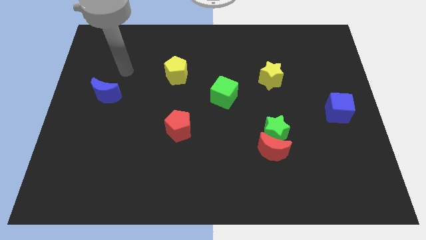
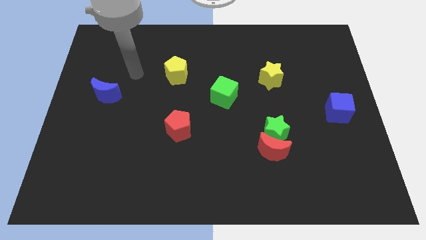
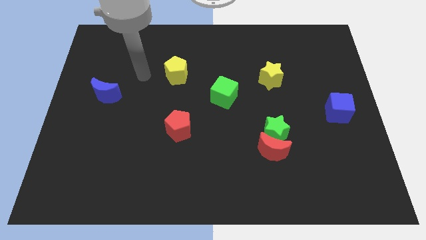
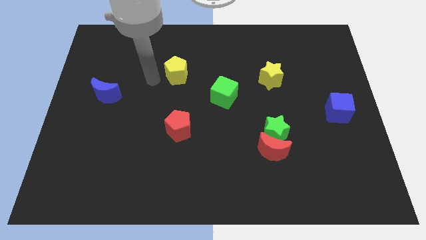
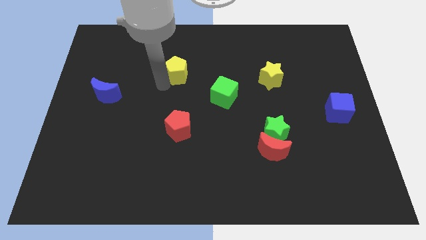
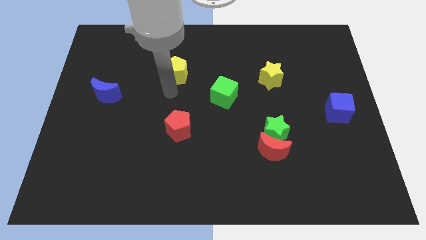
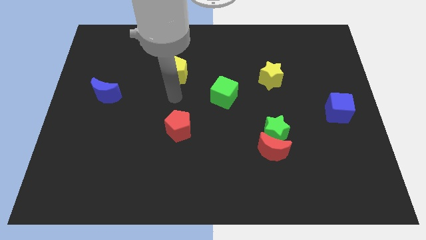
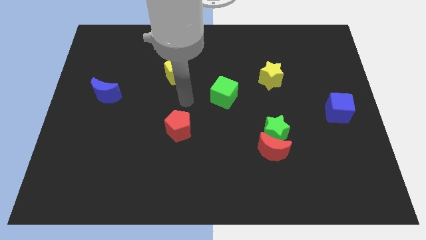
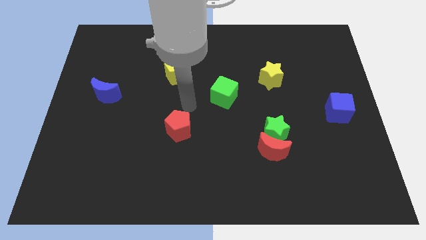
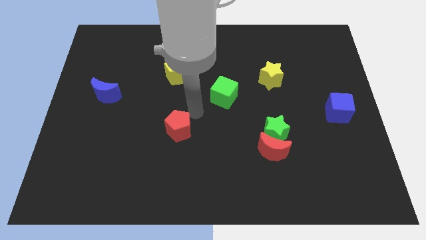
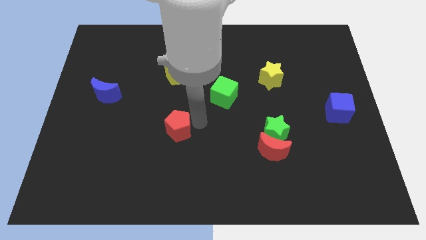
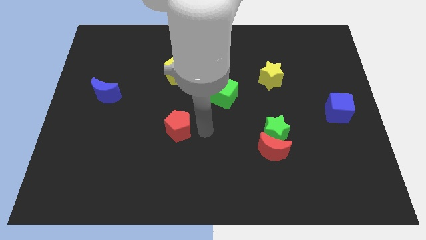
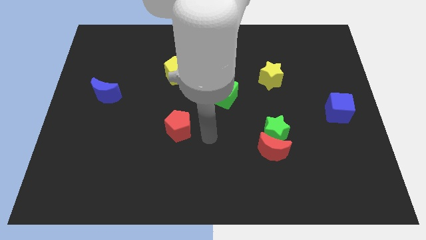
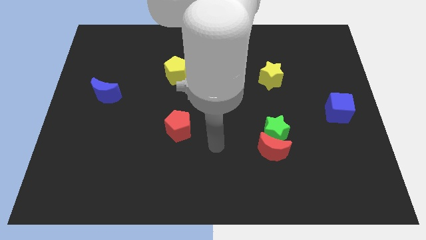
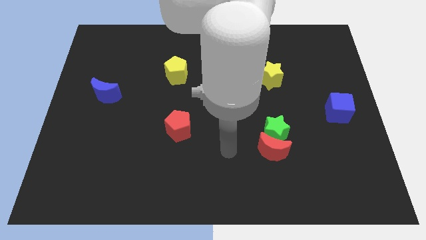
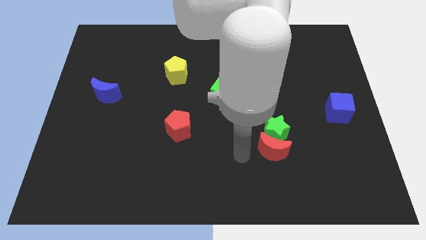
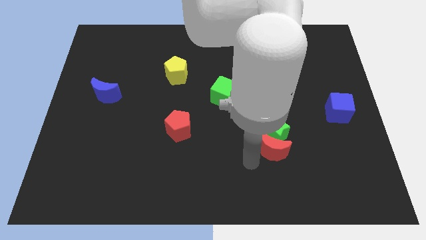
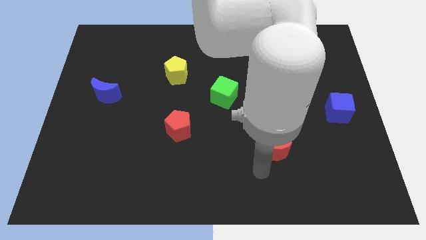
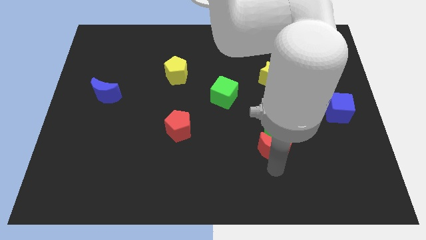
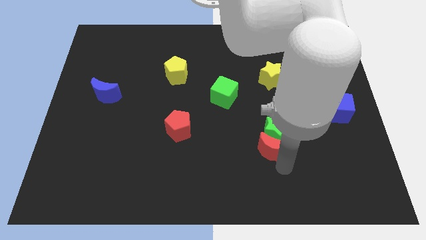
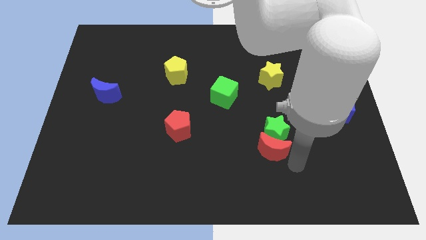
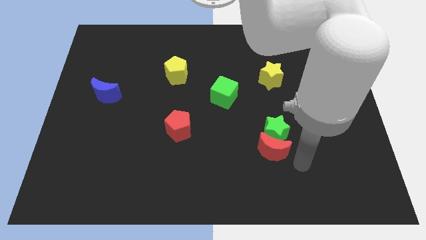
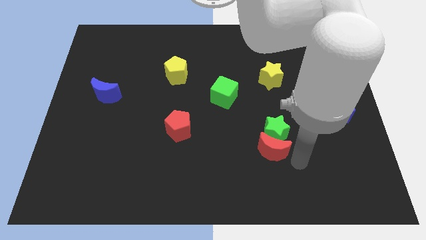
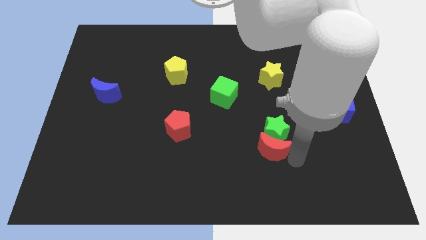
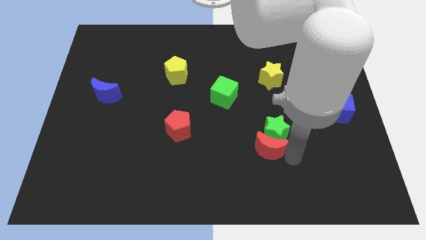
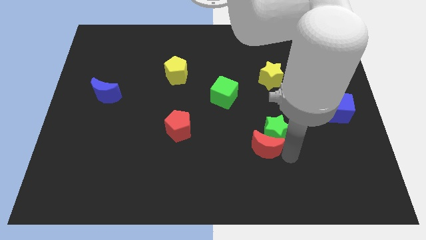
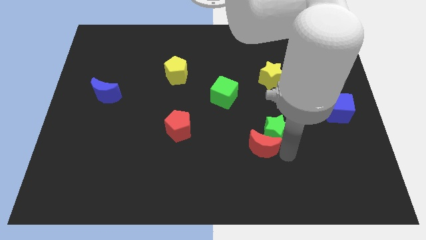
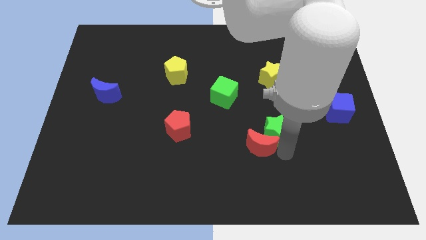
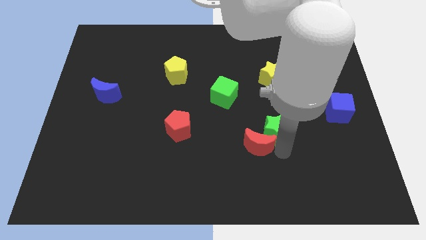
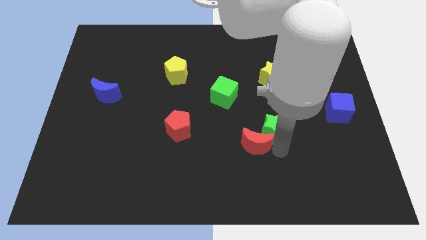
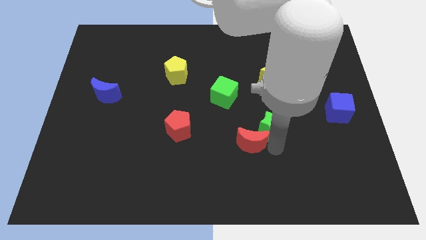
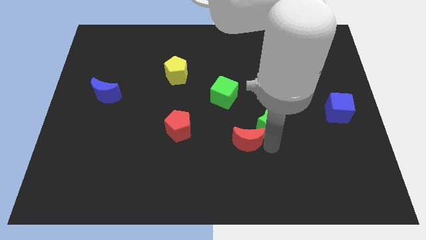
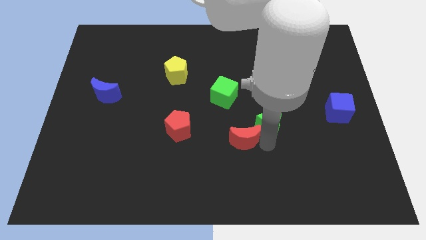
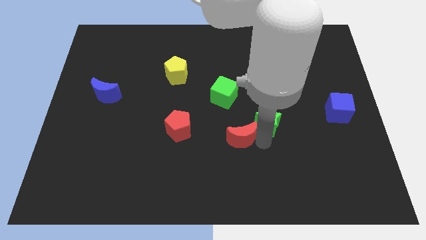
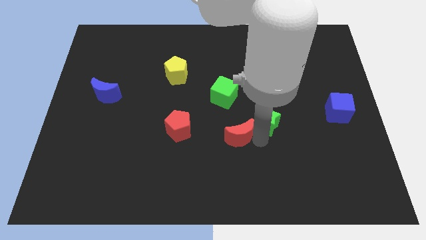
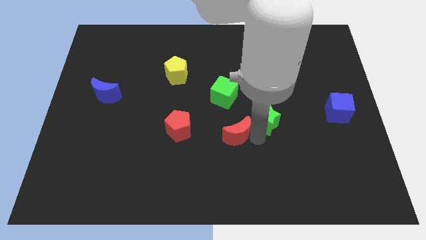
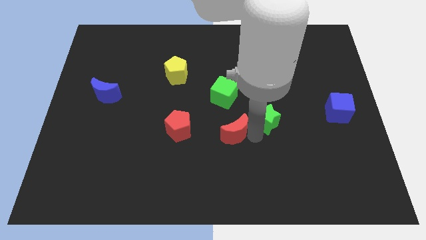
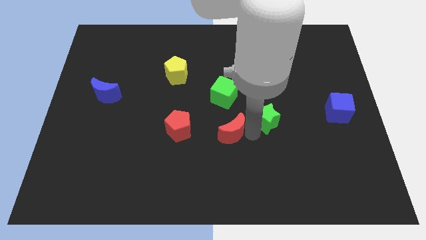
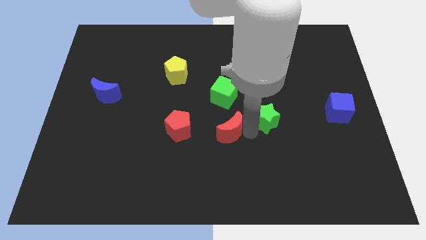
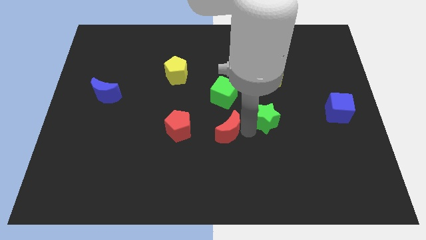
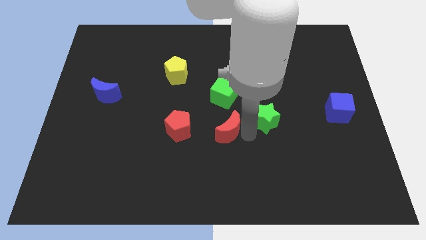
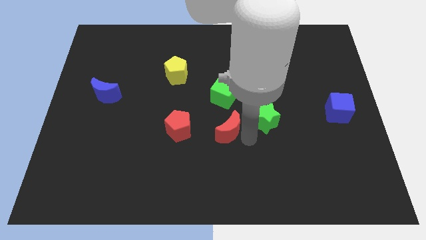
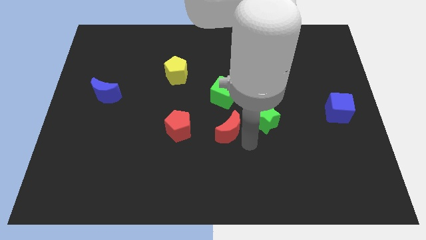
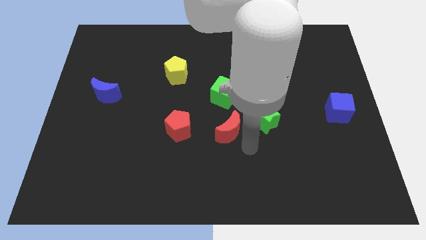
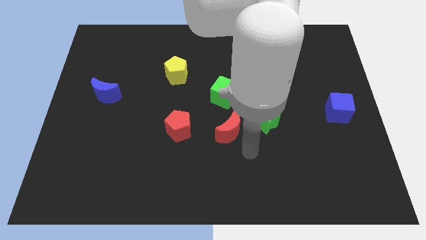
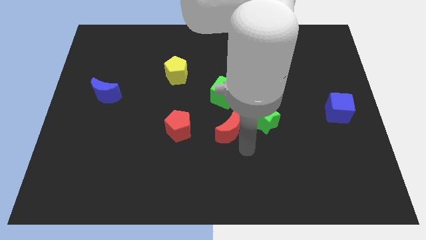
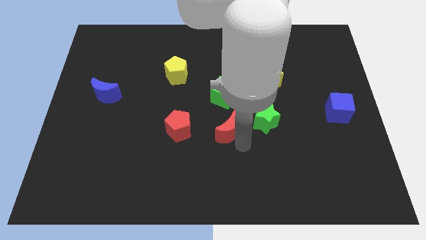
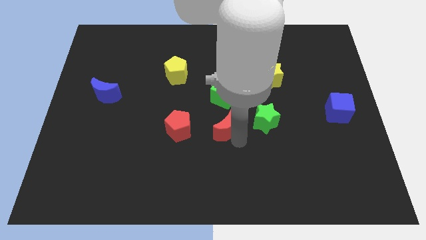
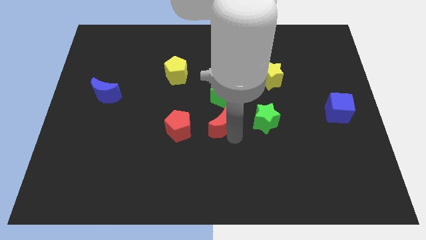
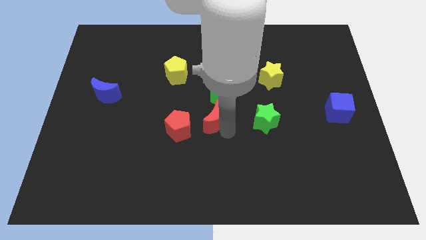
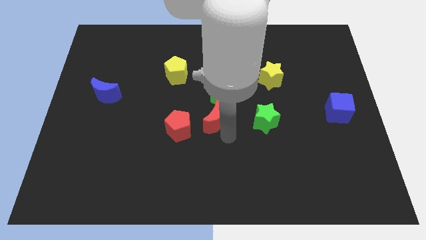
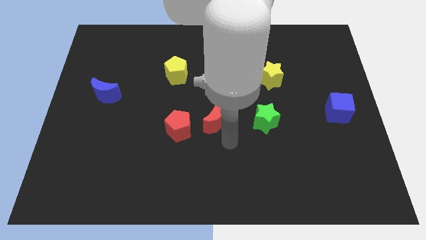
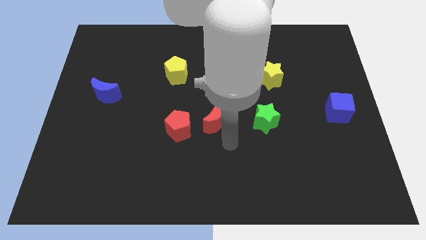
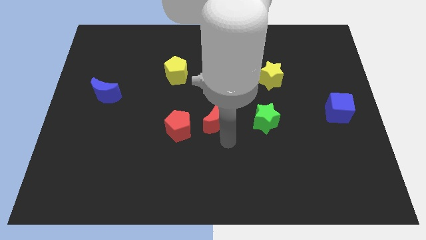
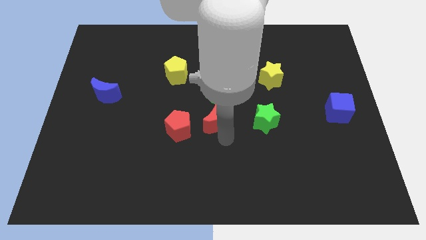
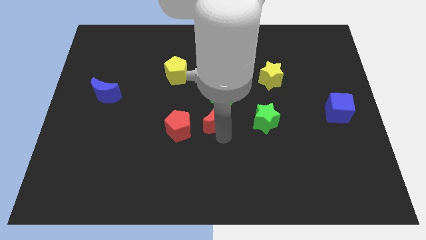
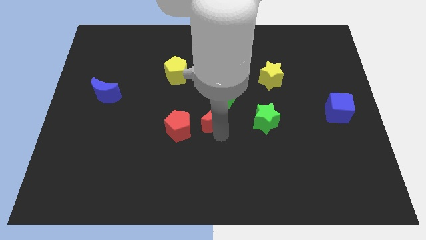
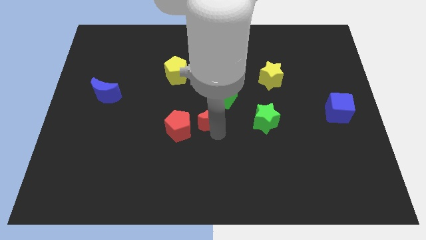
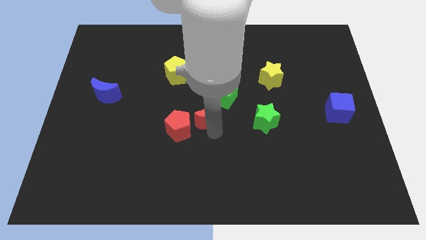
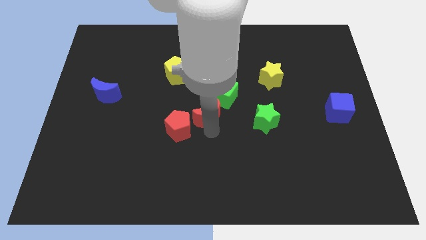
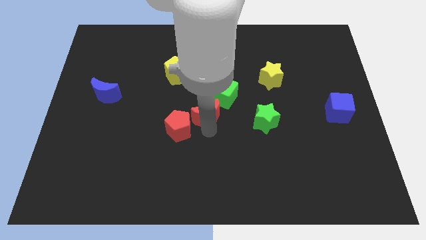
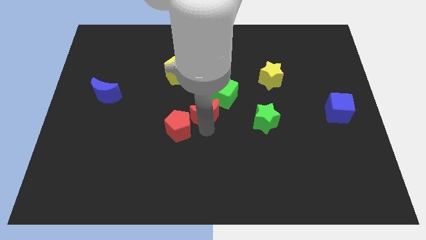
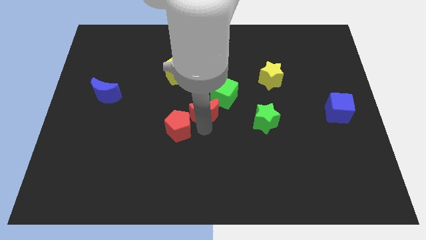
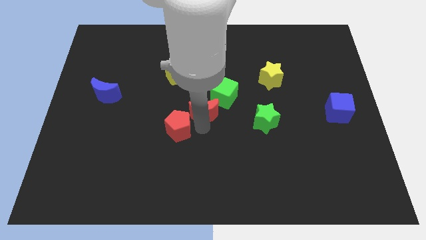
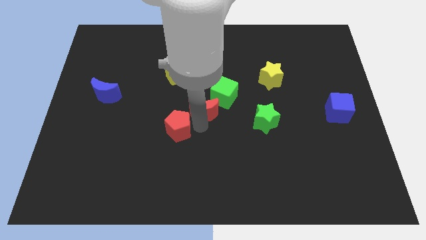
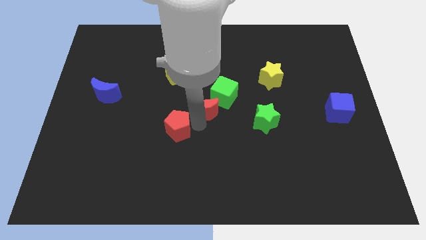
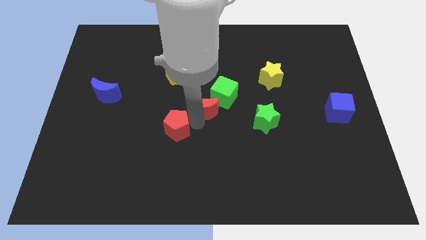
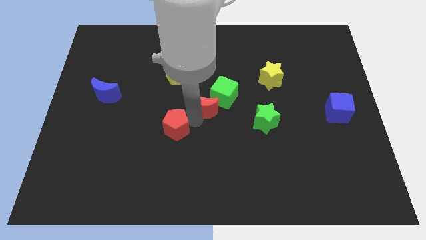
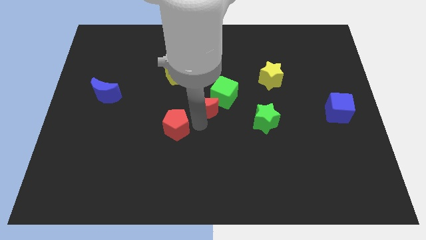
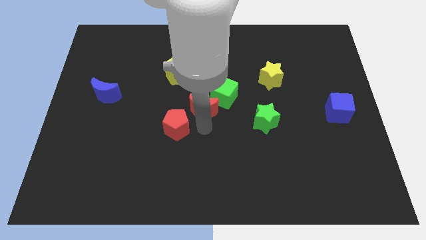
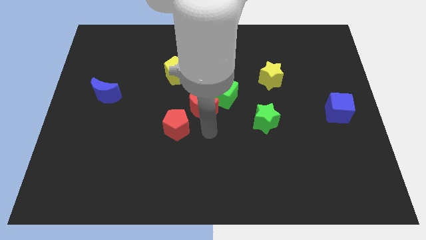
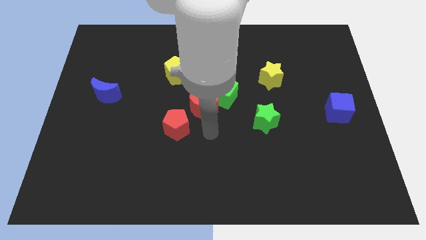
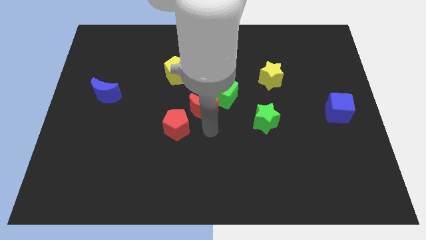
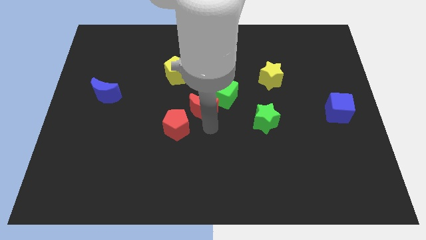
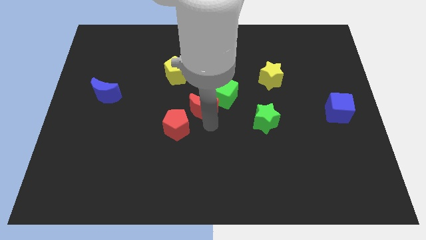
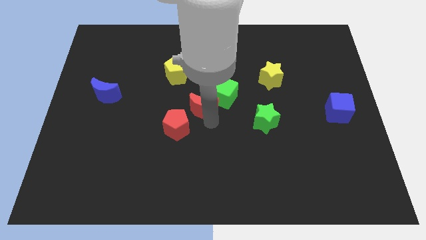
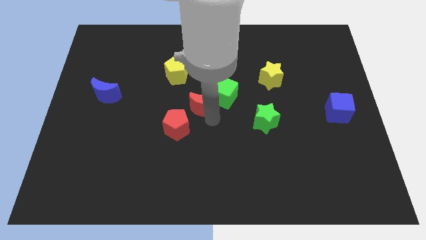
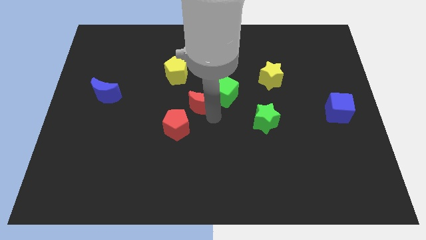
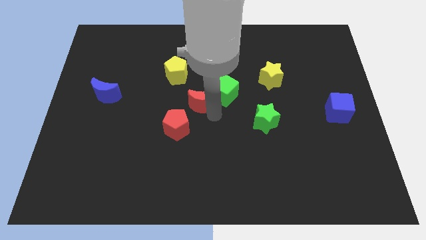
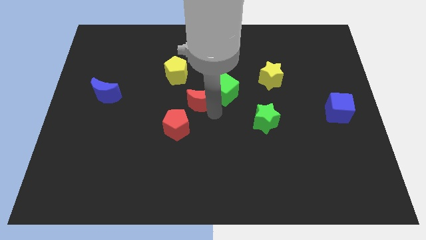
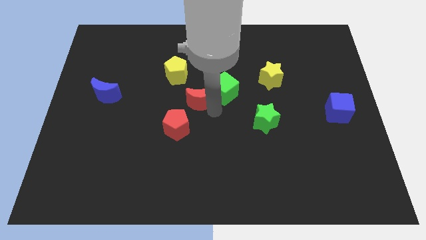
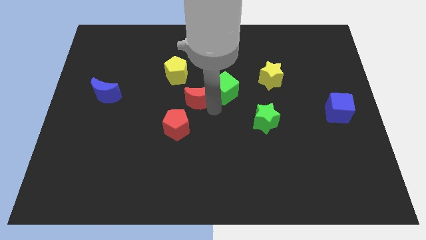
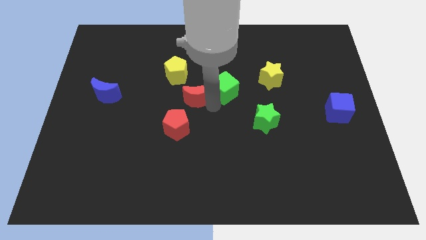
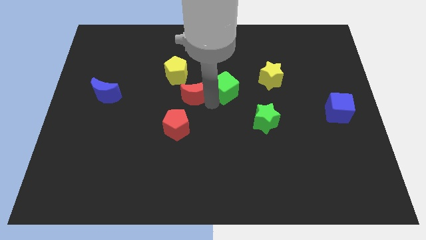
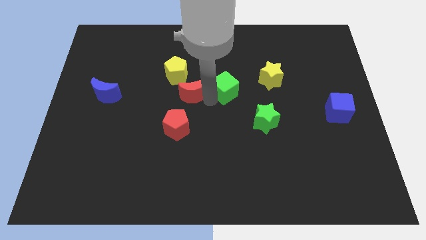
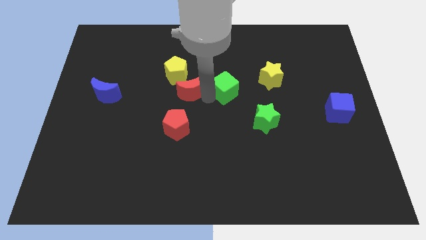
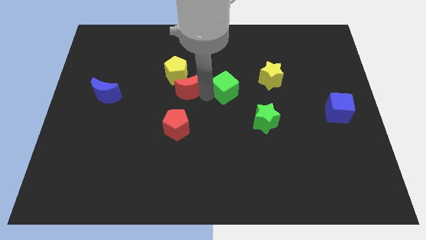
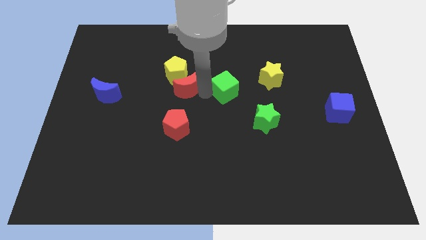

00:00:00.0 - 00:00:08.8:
move the red moon to the yellow pentagon
